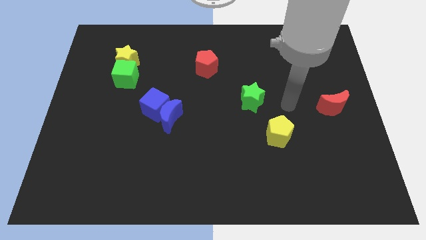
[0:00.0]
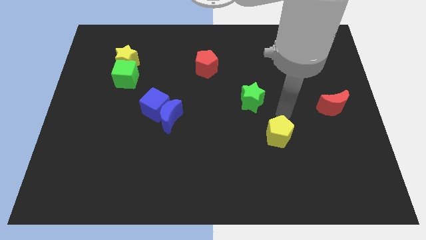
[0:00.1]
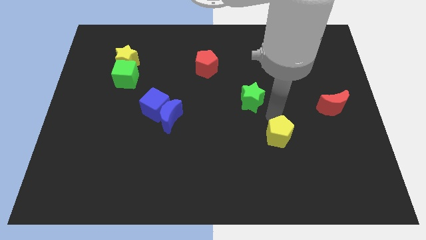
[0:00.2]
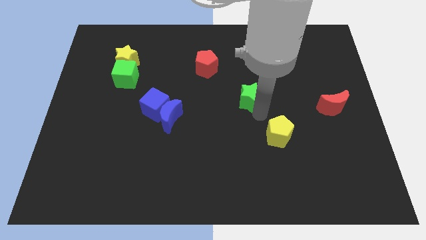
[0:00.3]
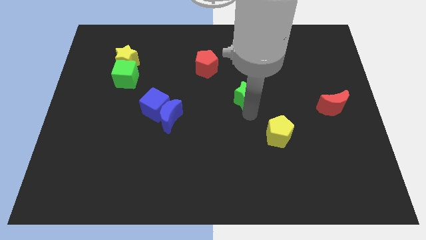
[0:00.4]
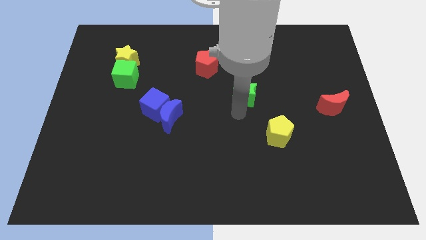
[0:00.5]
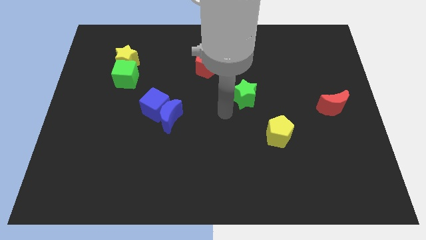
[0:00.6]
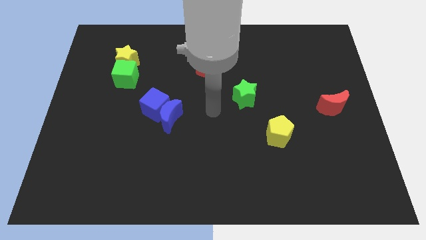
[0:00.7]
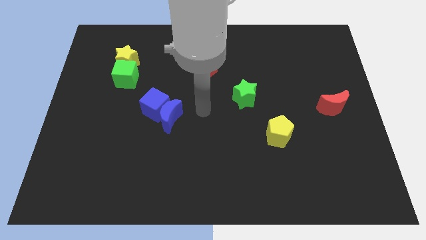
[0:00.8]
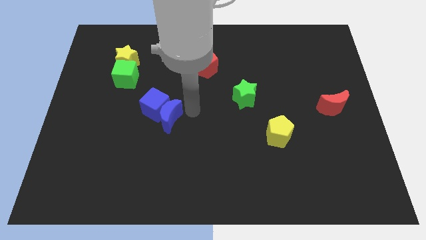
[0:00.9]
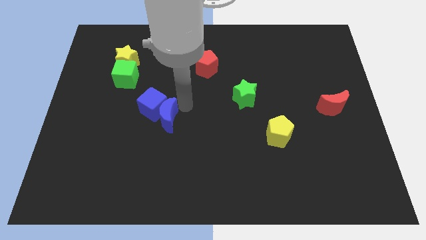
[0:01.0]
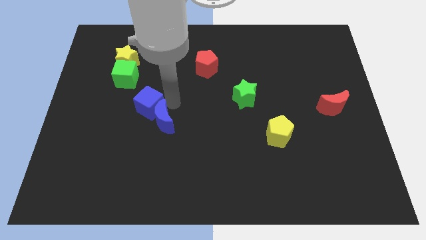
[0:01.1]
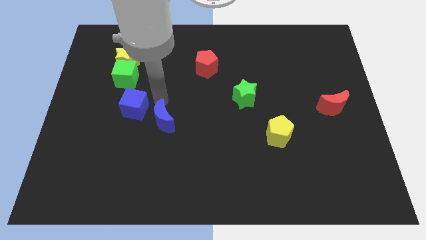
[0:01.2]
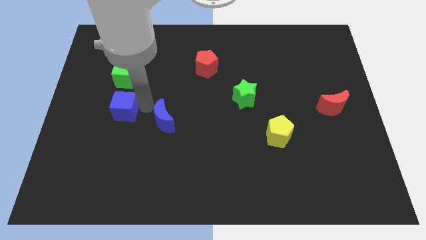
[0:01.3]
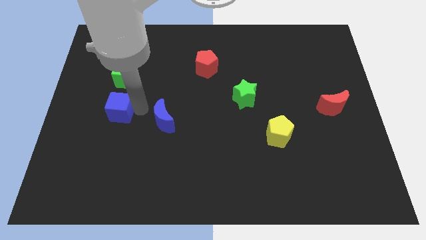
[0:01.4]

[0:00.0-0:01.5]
separate the blue moon from the blue cube

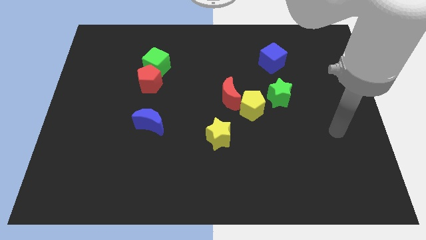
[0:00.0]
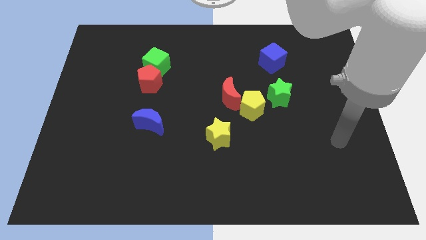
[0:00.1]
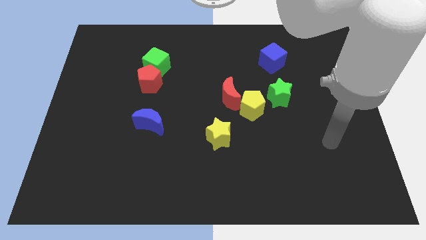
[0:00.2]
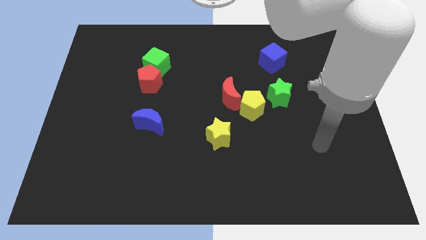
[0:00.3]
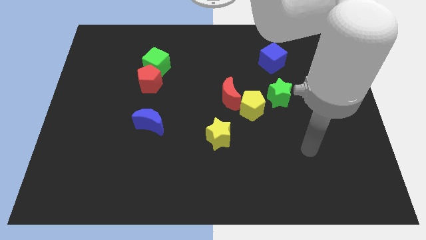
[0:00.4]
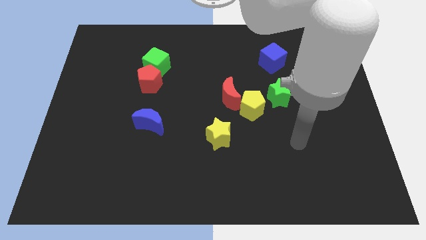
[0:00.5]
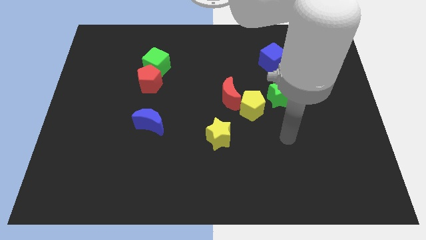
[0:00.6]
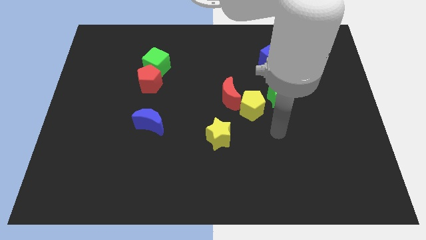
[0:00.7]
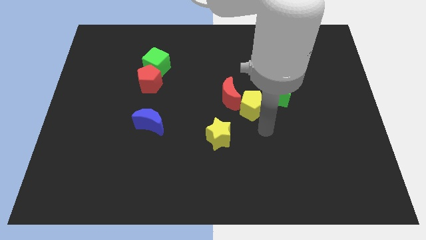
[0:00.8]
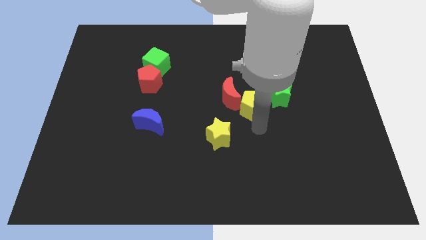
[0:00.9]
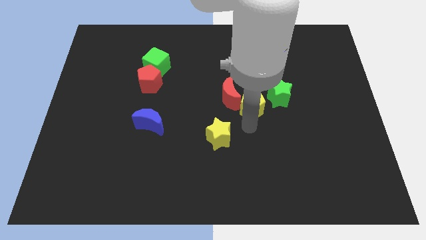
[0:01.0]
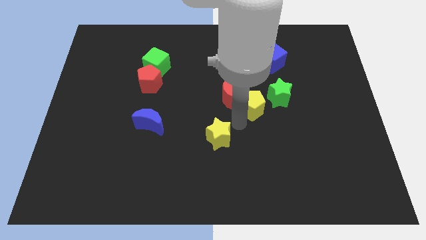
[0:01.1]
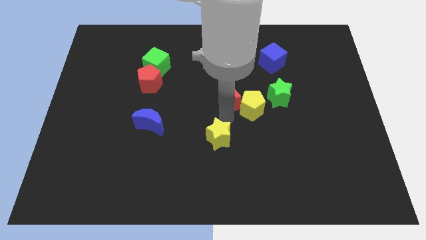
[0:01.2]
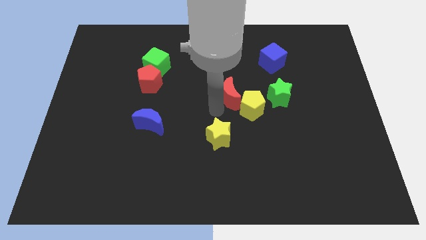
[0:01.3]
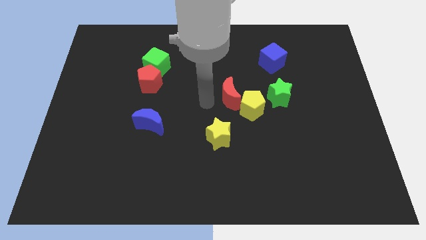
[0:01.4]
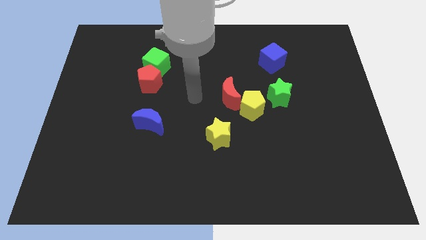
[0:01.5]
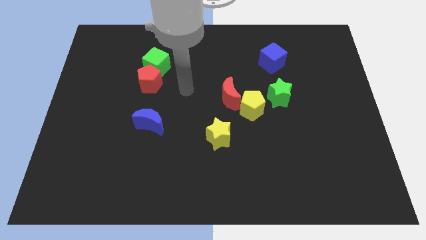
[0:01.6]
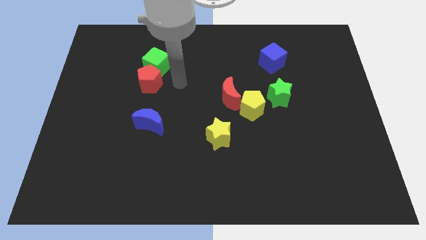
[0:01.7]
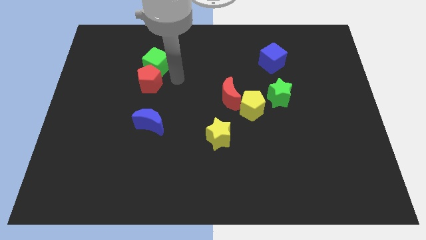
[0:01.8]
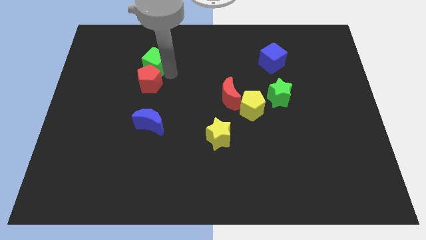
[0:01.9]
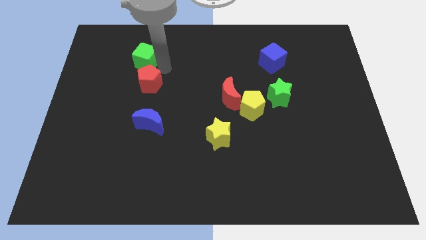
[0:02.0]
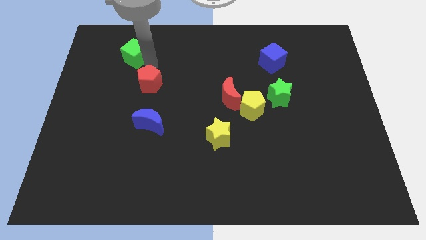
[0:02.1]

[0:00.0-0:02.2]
separate the red pentagon from the green cube

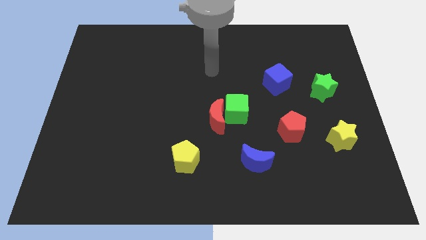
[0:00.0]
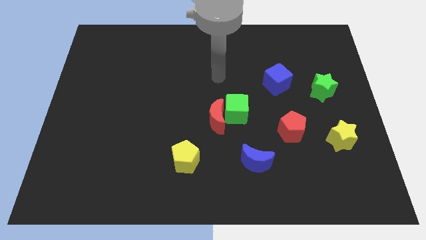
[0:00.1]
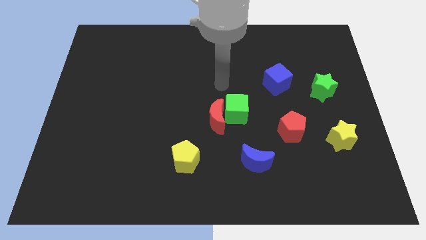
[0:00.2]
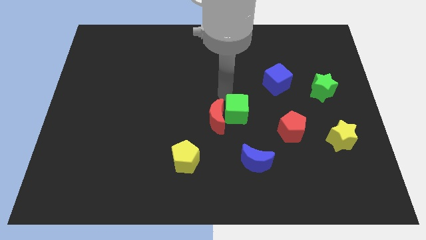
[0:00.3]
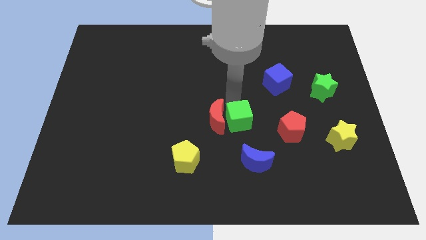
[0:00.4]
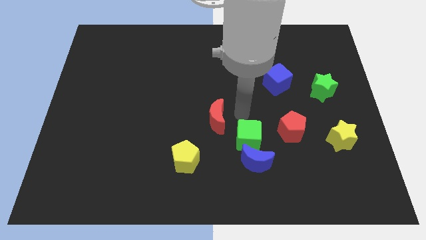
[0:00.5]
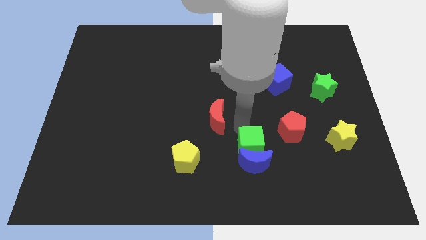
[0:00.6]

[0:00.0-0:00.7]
pull the red moon apart from the green cube

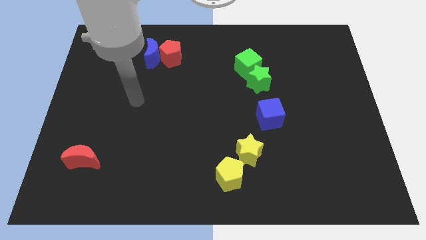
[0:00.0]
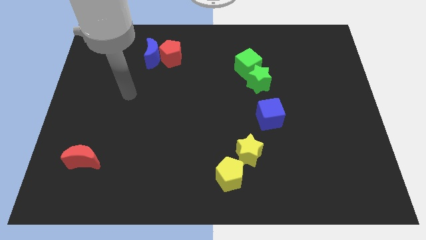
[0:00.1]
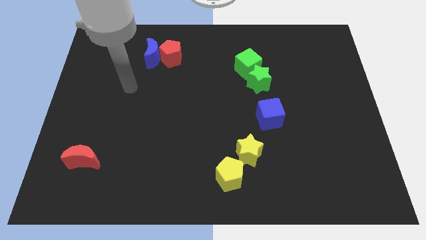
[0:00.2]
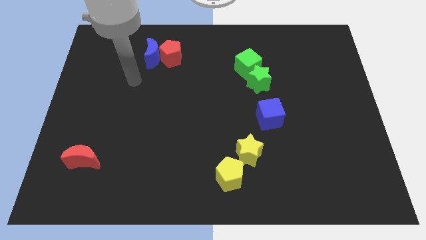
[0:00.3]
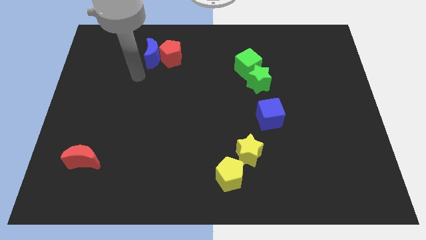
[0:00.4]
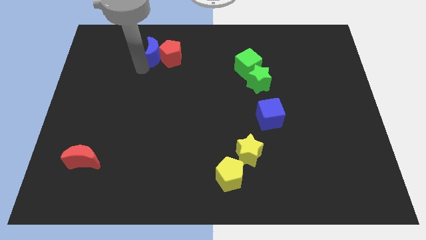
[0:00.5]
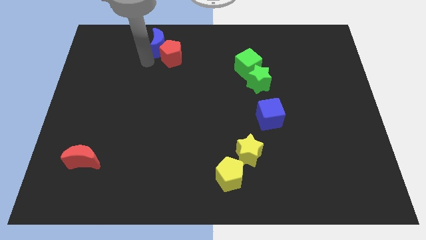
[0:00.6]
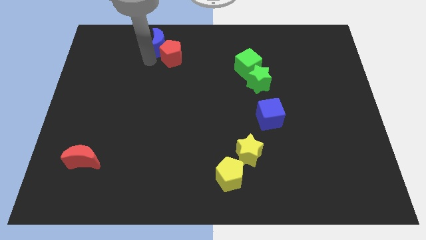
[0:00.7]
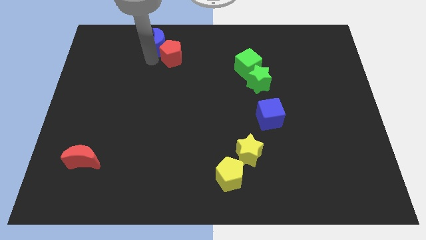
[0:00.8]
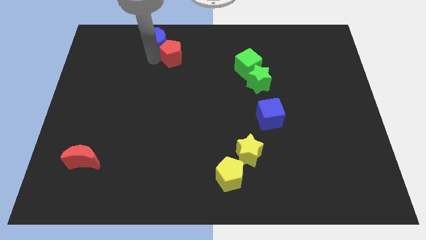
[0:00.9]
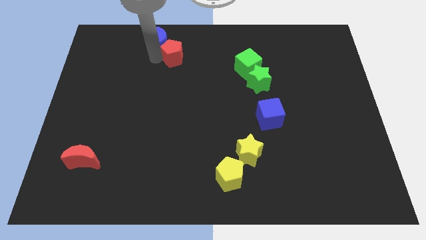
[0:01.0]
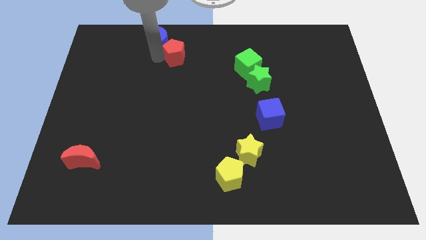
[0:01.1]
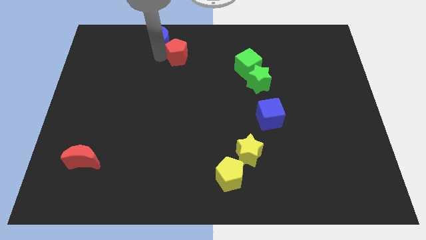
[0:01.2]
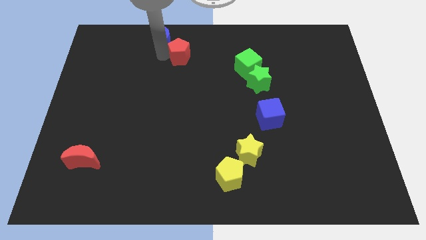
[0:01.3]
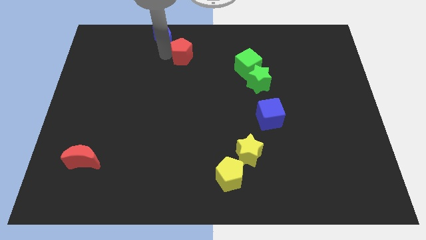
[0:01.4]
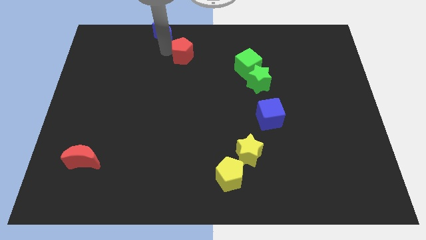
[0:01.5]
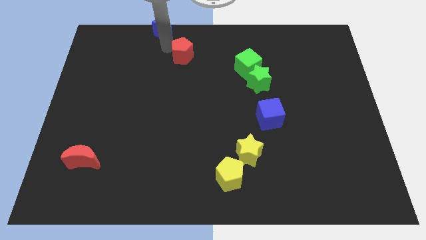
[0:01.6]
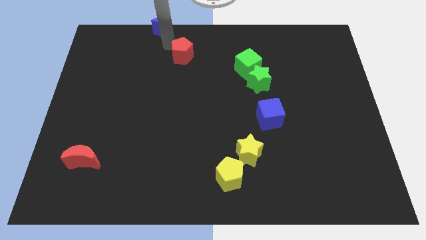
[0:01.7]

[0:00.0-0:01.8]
move the red pentagon away from the blue moon

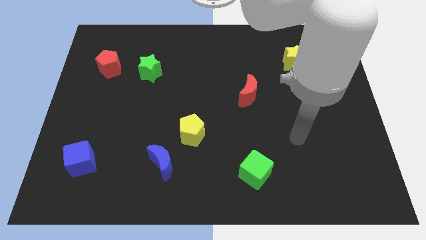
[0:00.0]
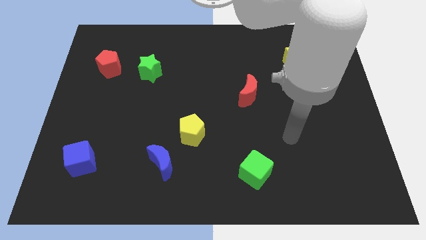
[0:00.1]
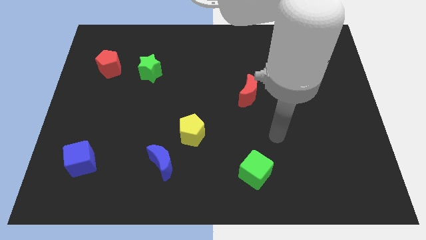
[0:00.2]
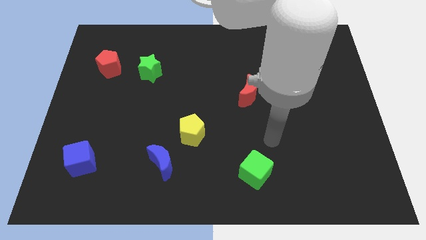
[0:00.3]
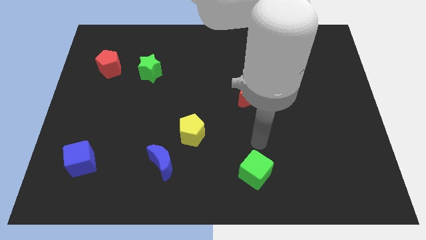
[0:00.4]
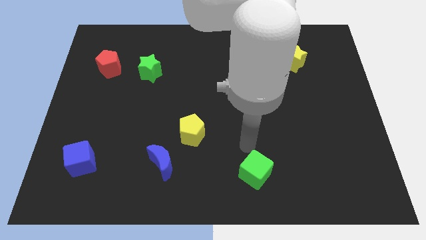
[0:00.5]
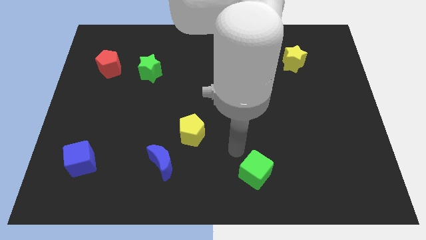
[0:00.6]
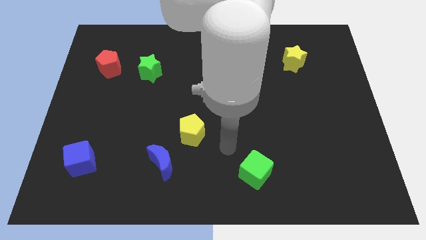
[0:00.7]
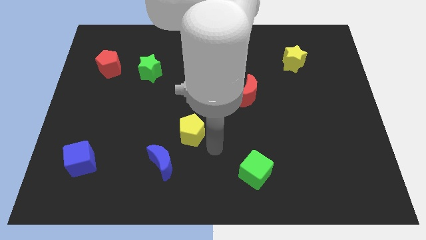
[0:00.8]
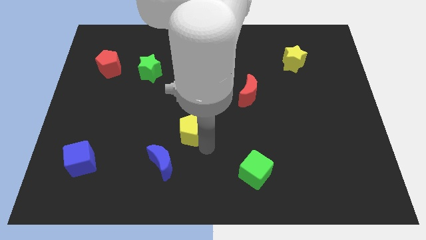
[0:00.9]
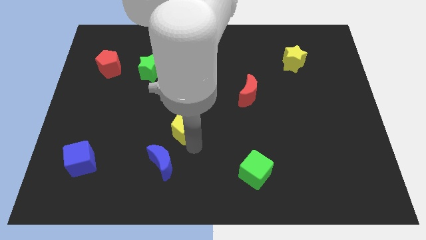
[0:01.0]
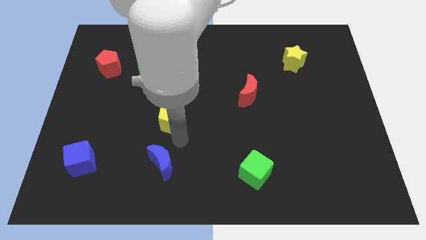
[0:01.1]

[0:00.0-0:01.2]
move the blue moon away from the yellow pentagon

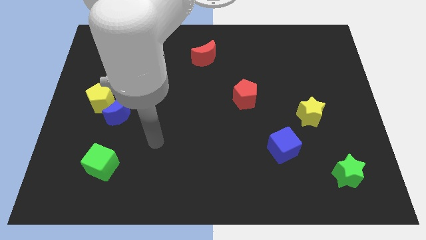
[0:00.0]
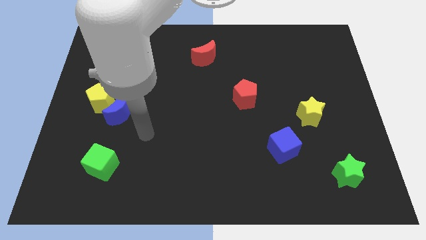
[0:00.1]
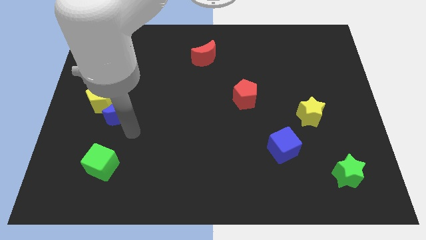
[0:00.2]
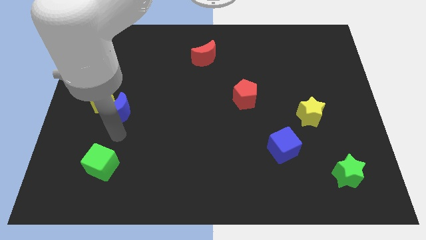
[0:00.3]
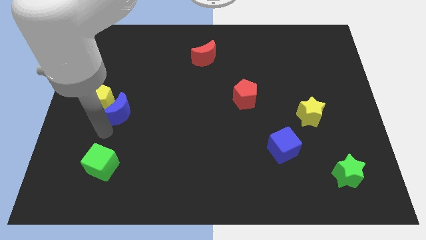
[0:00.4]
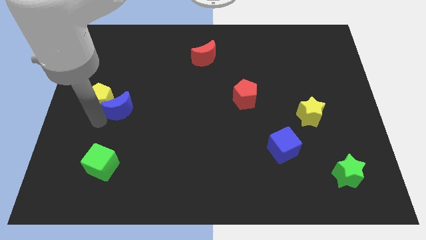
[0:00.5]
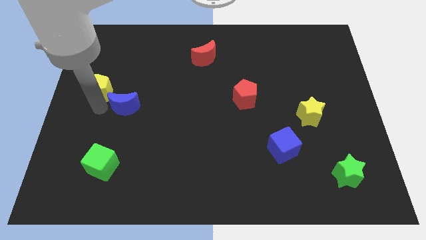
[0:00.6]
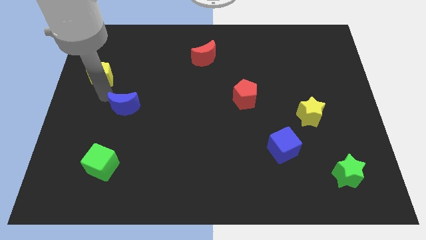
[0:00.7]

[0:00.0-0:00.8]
separate the blue moon from the yellow pentagon

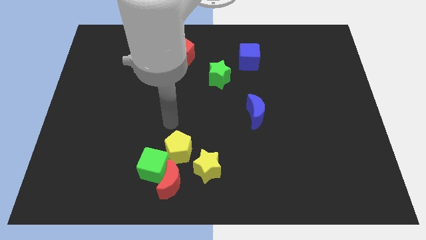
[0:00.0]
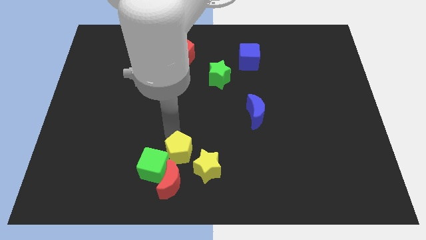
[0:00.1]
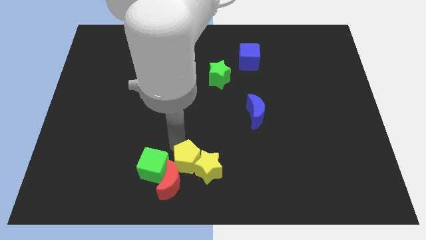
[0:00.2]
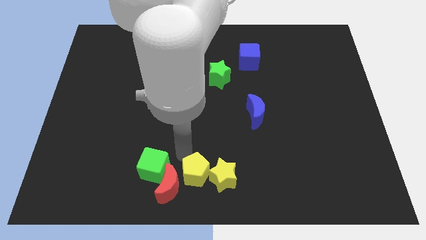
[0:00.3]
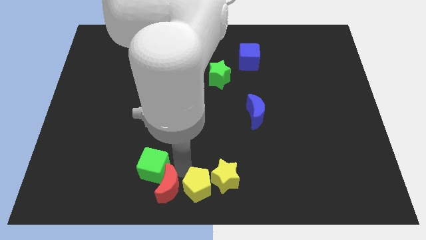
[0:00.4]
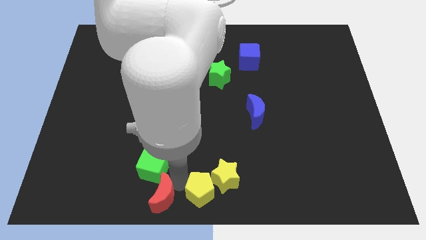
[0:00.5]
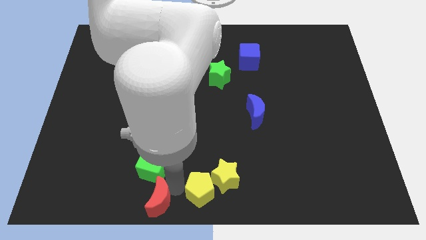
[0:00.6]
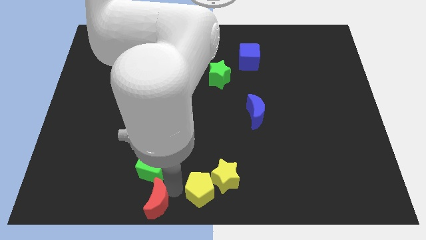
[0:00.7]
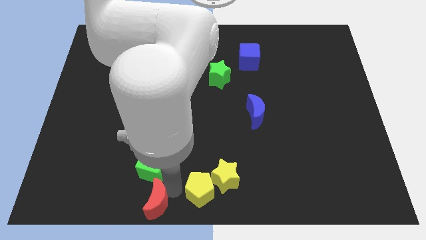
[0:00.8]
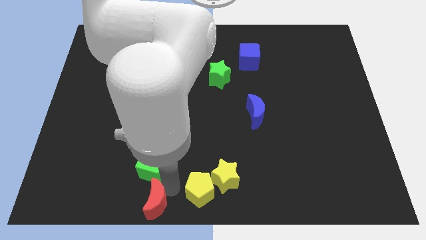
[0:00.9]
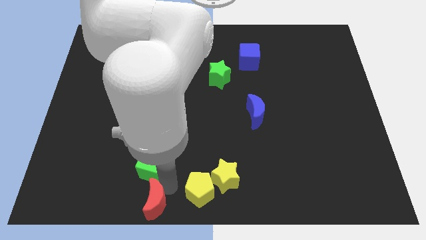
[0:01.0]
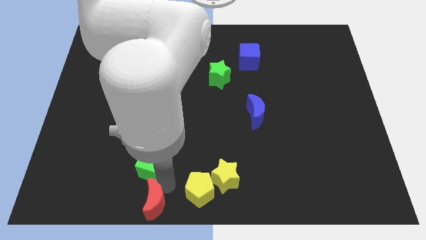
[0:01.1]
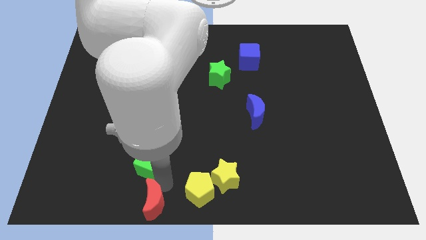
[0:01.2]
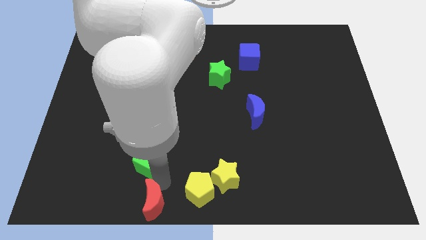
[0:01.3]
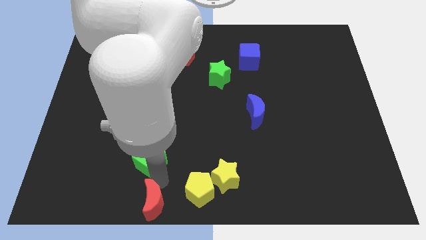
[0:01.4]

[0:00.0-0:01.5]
pull the green cube apart from the red moon and yellow pentagon
